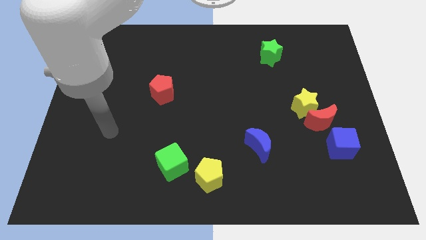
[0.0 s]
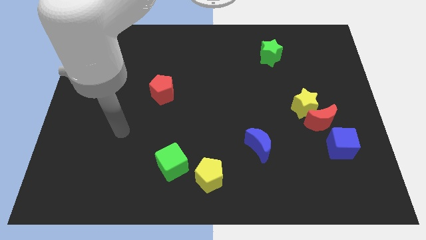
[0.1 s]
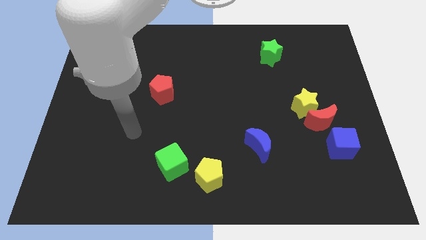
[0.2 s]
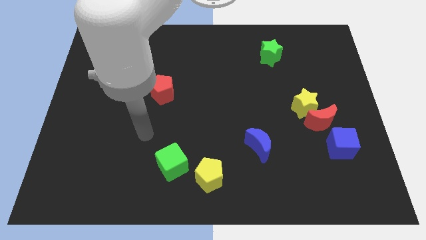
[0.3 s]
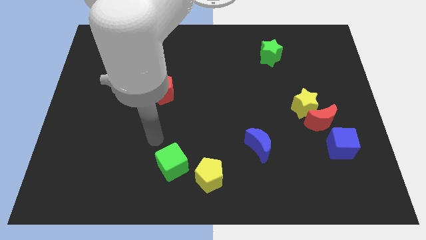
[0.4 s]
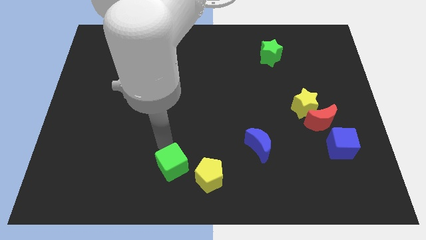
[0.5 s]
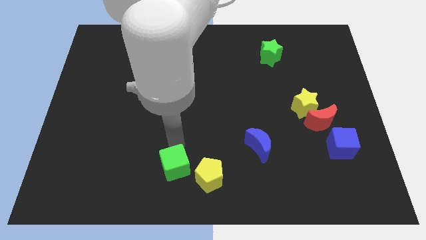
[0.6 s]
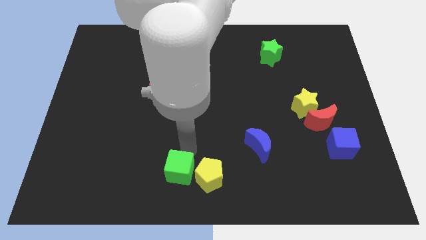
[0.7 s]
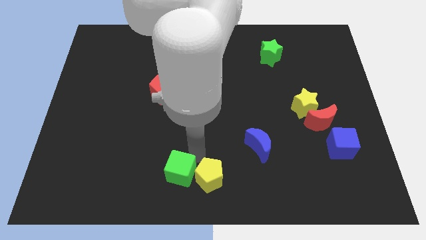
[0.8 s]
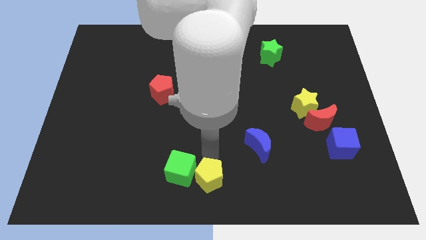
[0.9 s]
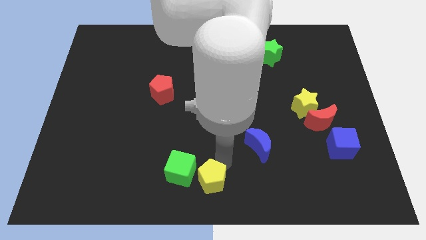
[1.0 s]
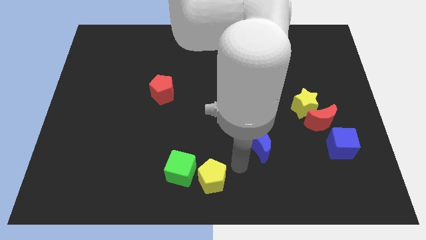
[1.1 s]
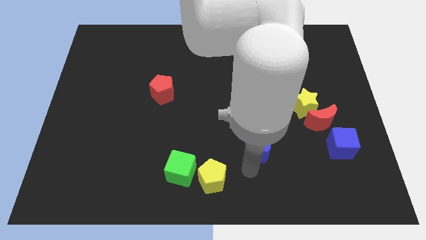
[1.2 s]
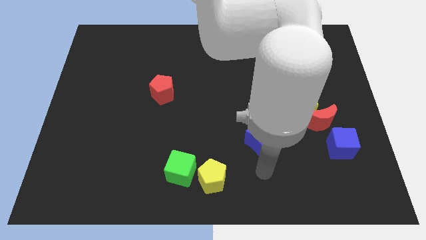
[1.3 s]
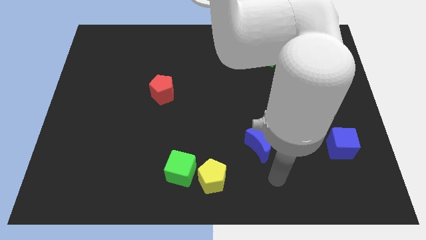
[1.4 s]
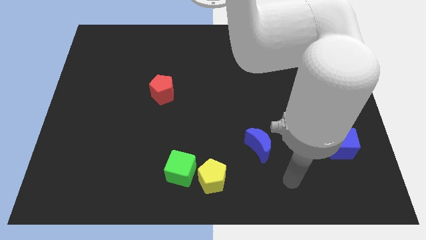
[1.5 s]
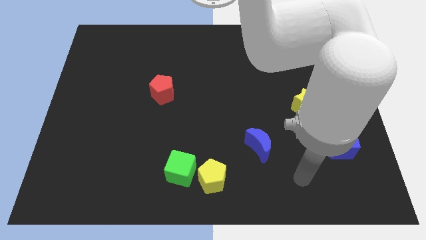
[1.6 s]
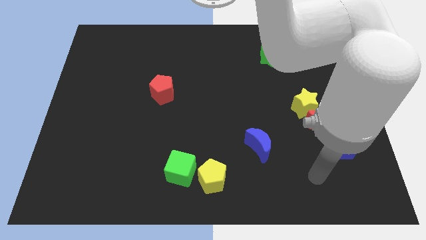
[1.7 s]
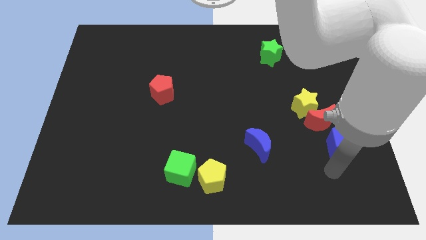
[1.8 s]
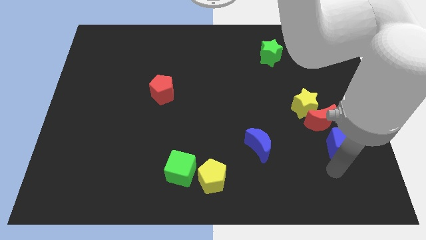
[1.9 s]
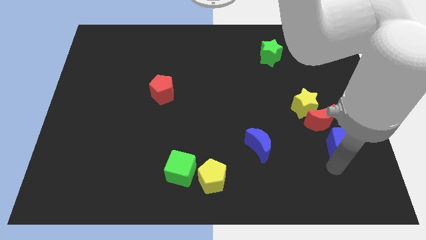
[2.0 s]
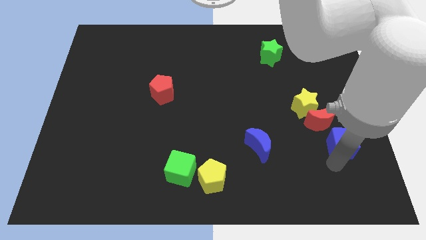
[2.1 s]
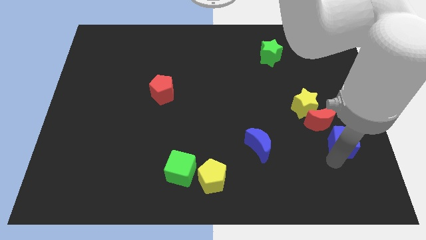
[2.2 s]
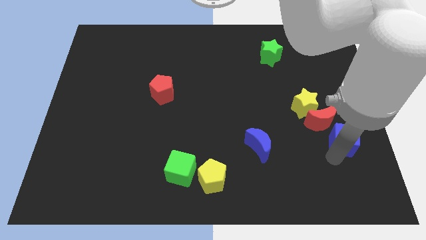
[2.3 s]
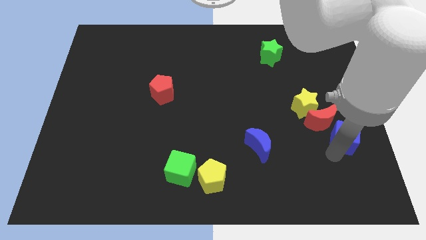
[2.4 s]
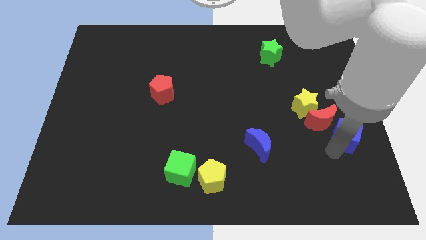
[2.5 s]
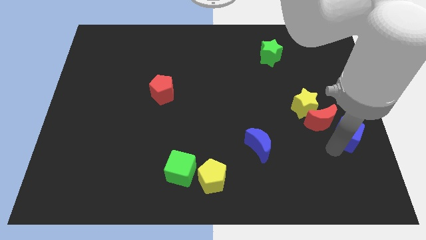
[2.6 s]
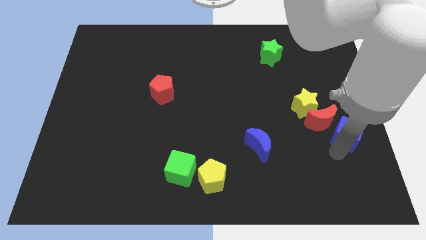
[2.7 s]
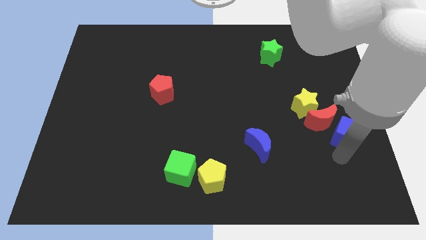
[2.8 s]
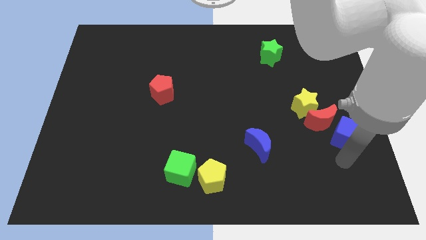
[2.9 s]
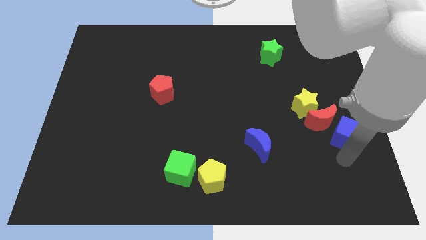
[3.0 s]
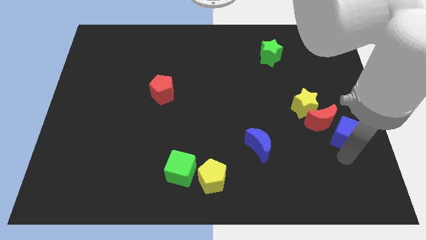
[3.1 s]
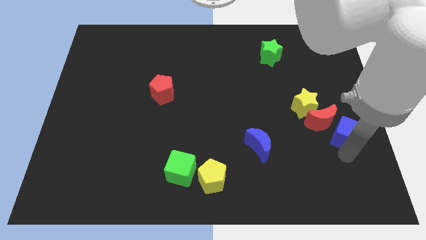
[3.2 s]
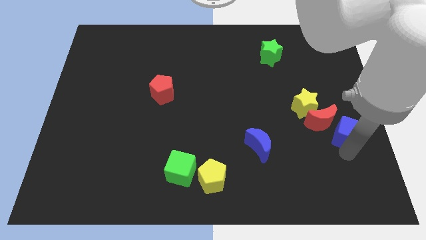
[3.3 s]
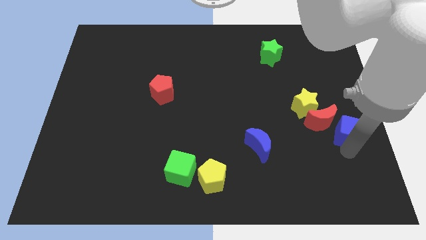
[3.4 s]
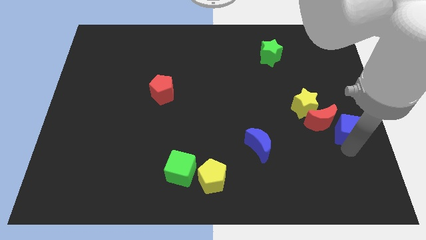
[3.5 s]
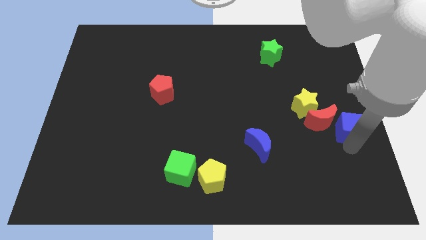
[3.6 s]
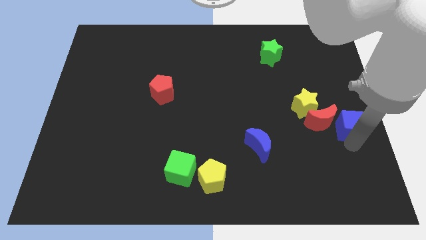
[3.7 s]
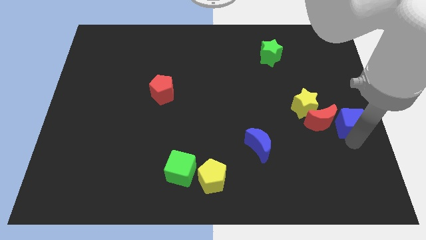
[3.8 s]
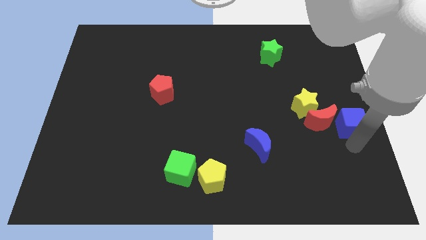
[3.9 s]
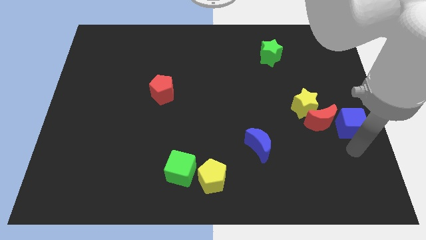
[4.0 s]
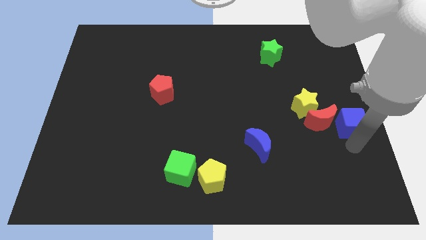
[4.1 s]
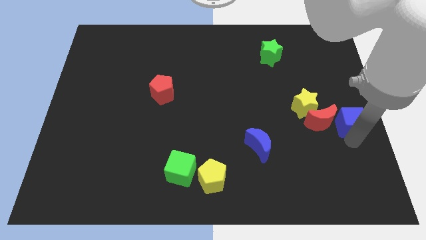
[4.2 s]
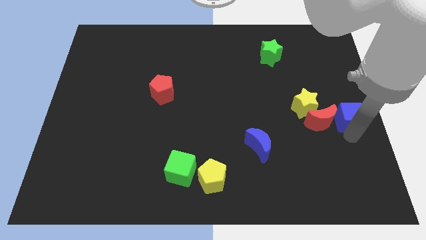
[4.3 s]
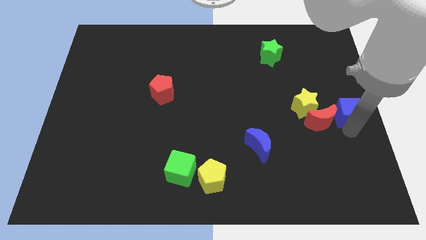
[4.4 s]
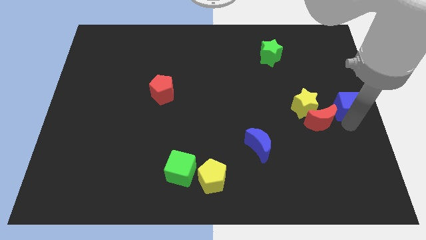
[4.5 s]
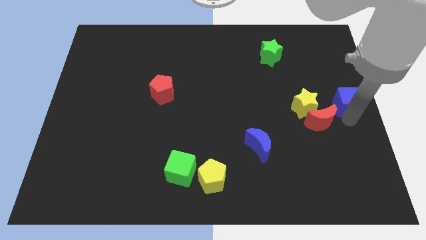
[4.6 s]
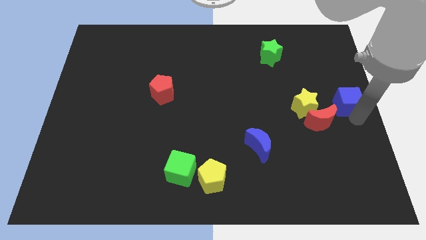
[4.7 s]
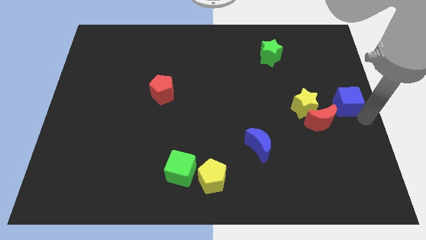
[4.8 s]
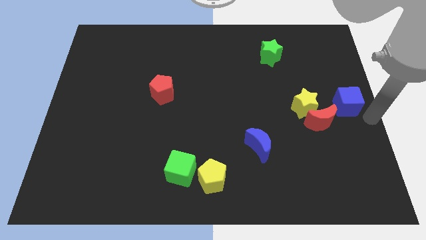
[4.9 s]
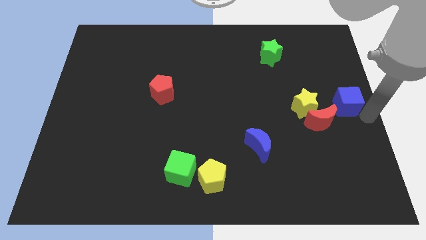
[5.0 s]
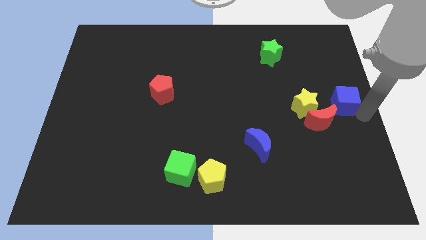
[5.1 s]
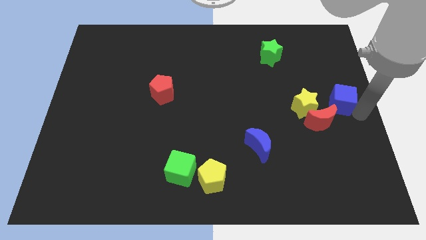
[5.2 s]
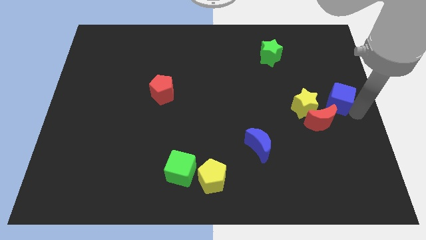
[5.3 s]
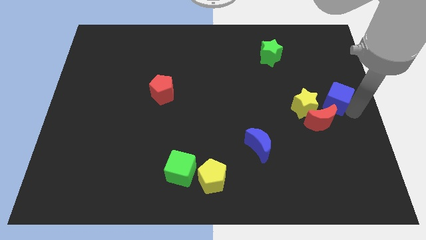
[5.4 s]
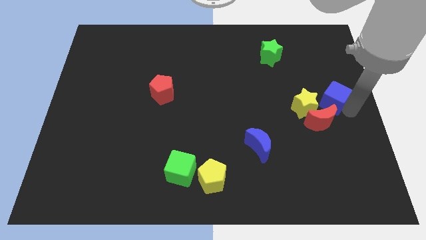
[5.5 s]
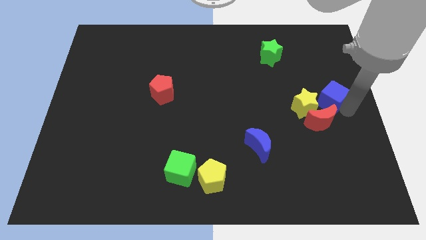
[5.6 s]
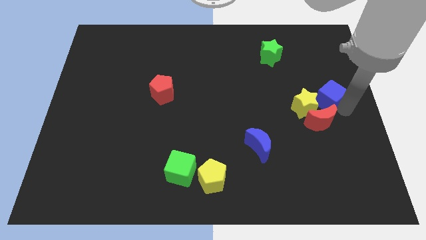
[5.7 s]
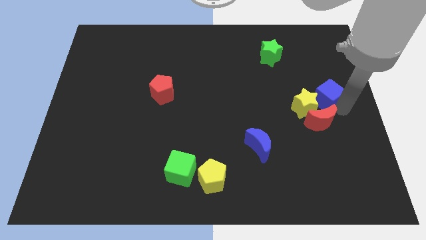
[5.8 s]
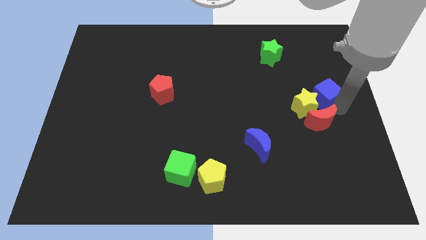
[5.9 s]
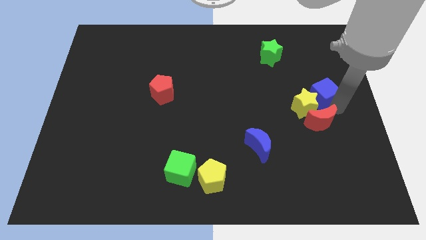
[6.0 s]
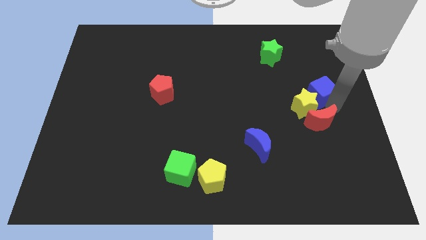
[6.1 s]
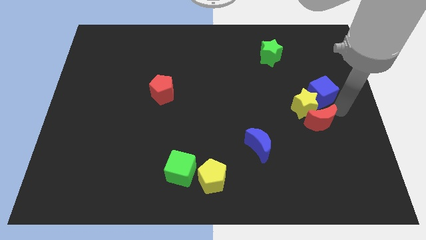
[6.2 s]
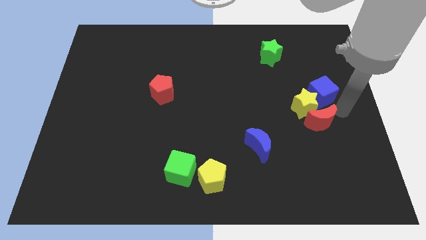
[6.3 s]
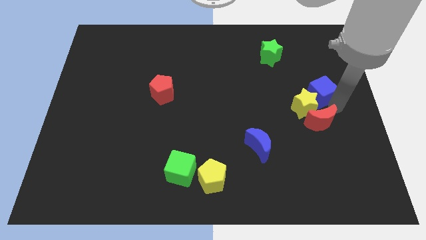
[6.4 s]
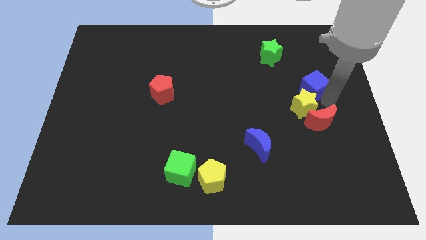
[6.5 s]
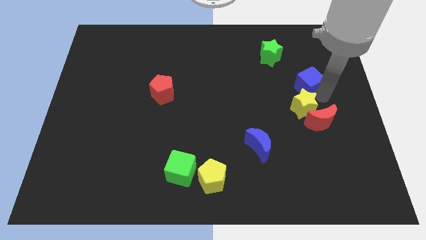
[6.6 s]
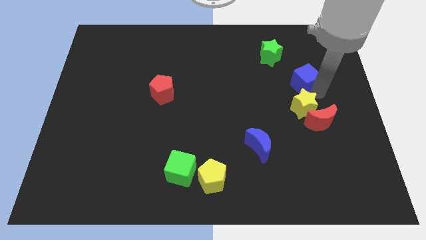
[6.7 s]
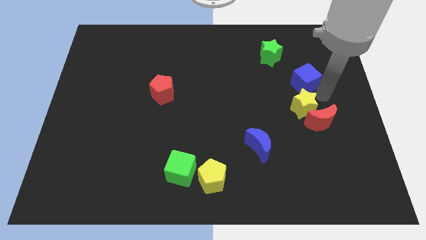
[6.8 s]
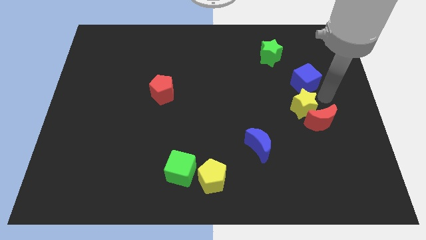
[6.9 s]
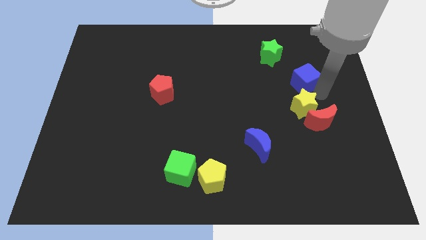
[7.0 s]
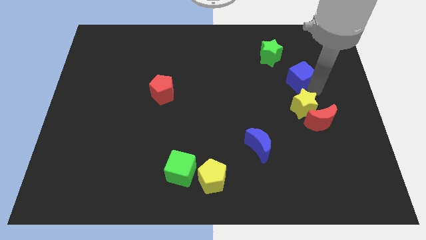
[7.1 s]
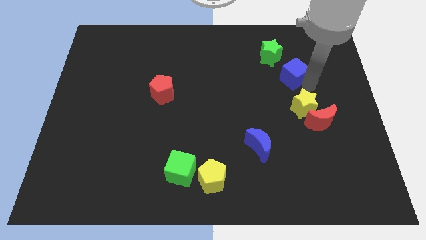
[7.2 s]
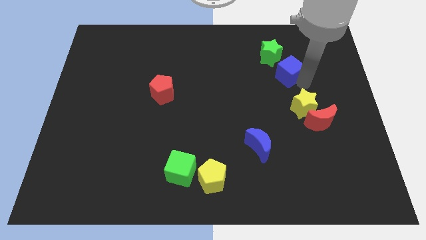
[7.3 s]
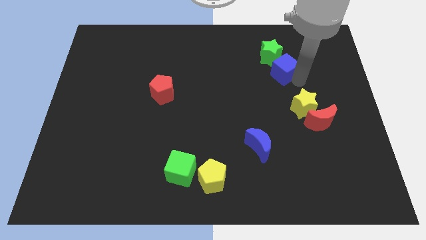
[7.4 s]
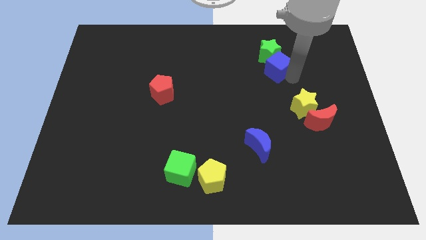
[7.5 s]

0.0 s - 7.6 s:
move the blue cube next to the green star
